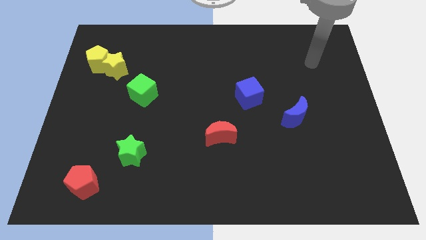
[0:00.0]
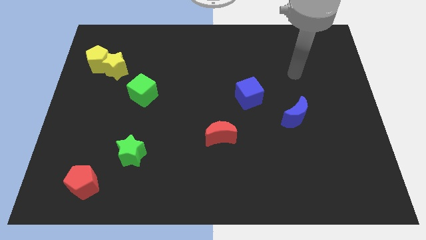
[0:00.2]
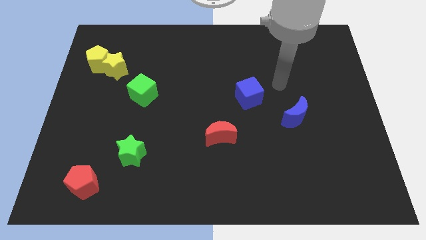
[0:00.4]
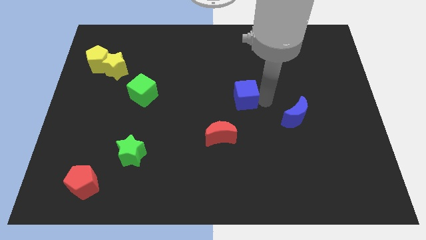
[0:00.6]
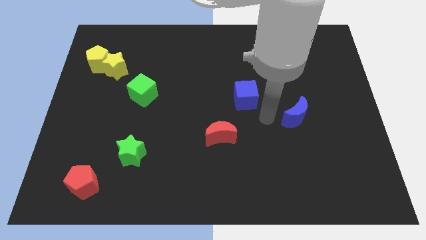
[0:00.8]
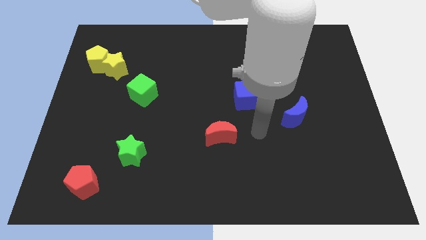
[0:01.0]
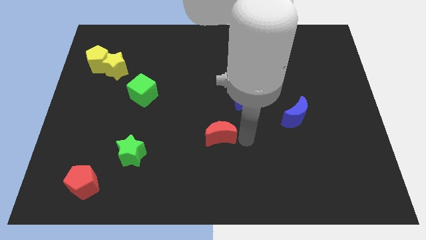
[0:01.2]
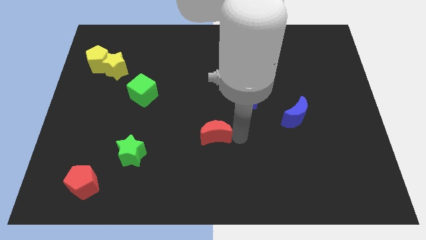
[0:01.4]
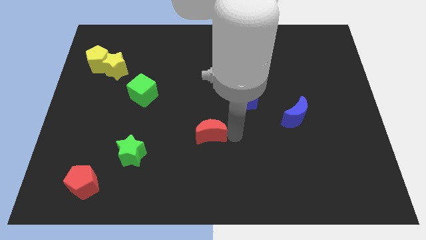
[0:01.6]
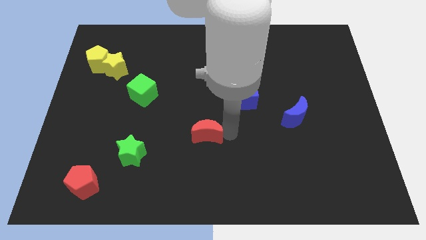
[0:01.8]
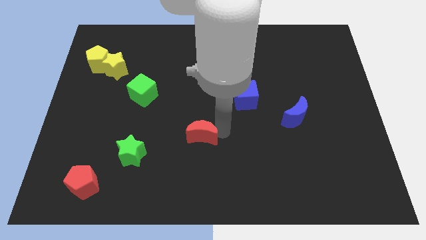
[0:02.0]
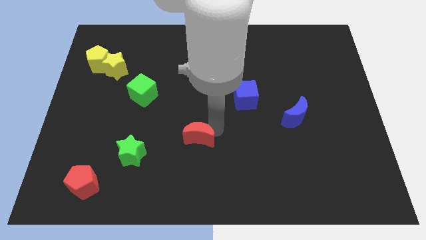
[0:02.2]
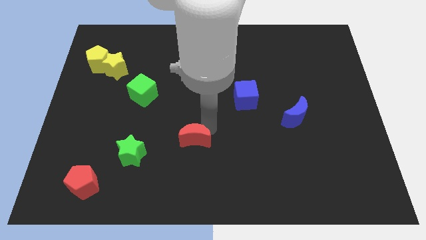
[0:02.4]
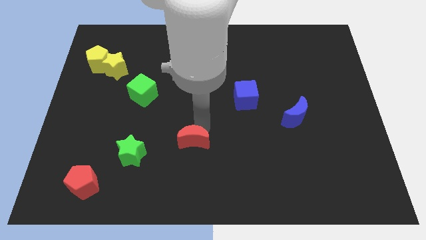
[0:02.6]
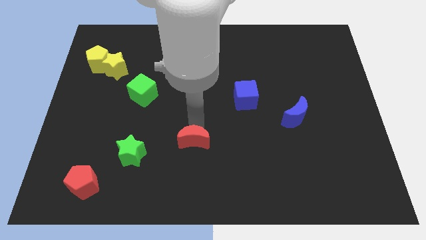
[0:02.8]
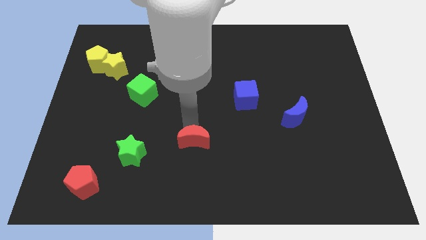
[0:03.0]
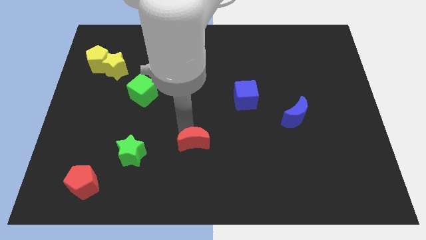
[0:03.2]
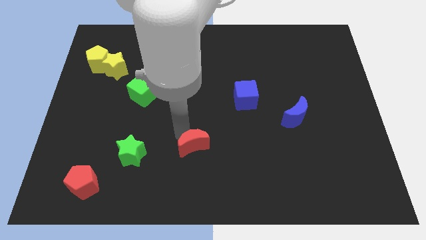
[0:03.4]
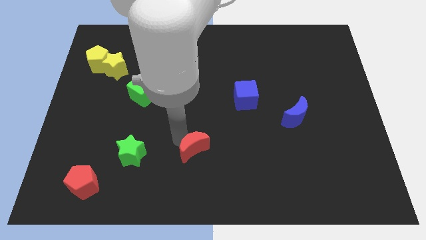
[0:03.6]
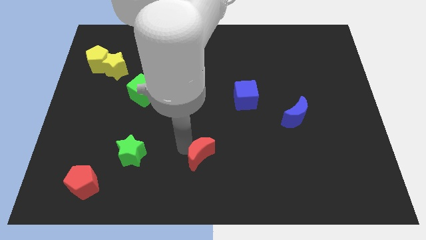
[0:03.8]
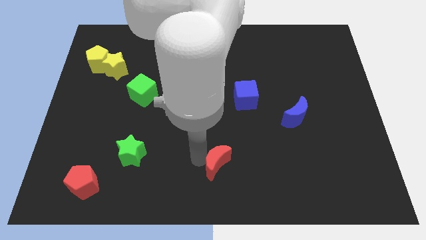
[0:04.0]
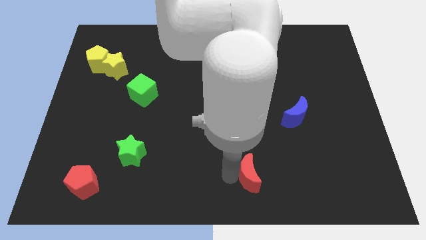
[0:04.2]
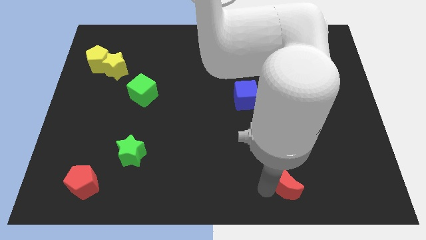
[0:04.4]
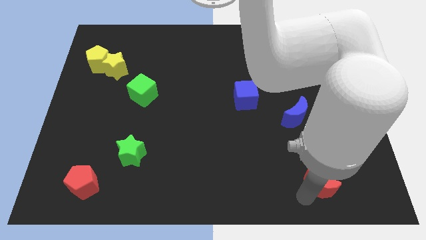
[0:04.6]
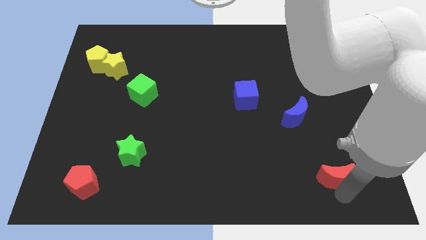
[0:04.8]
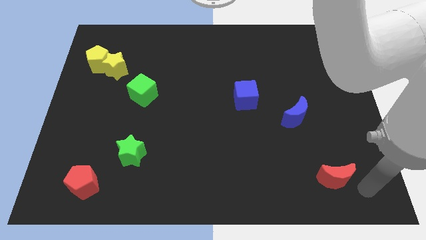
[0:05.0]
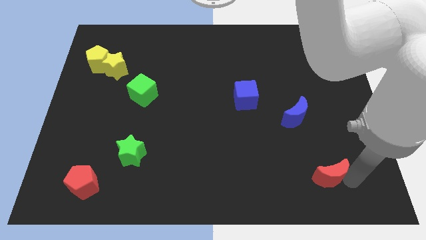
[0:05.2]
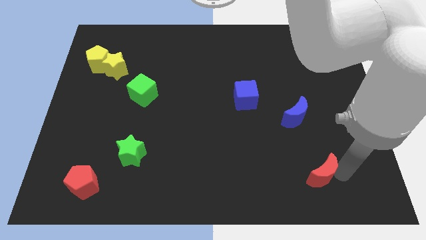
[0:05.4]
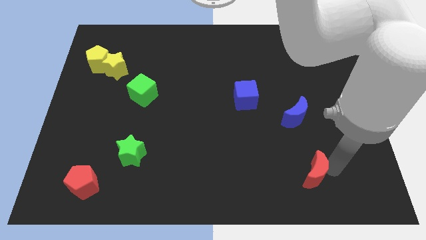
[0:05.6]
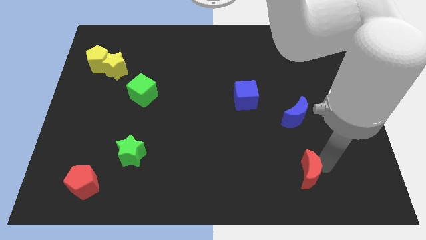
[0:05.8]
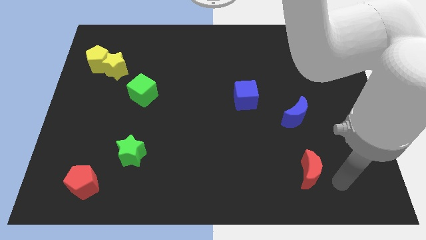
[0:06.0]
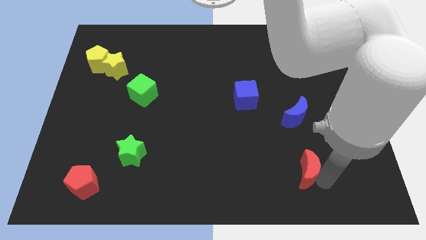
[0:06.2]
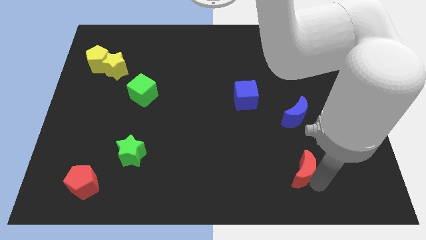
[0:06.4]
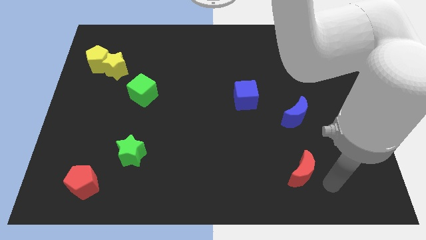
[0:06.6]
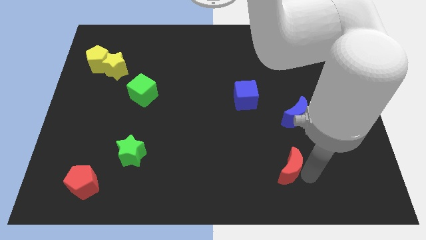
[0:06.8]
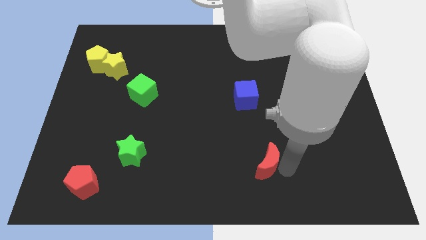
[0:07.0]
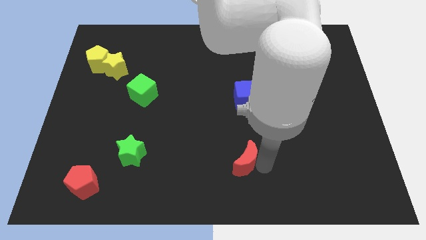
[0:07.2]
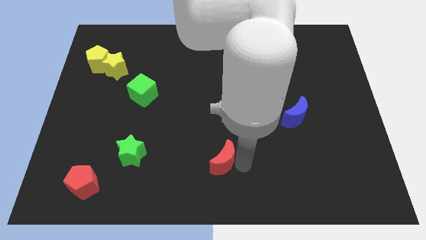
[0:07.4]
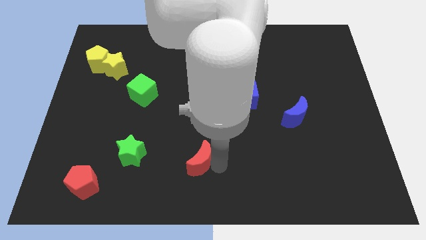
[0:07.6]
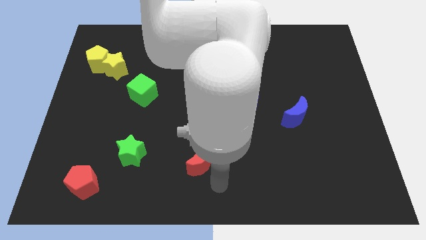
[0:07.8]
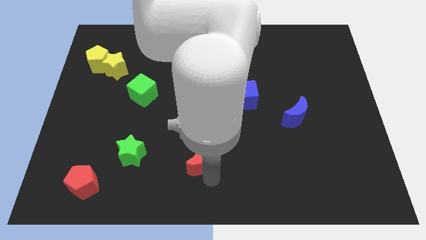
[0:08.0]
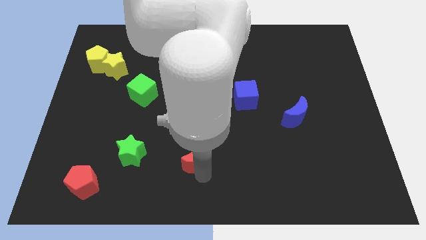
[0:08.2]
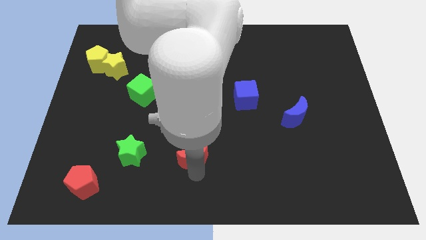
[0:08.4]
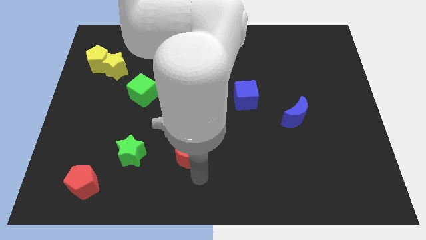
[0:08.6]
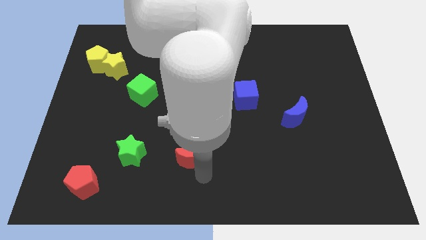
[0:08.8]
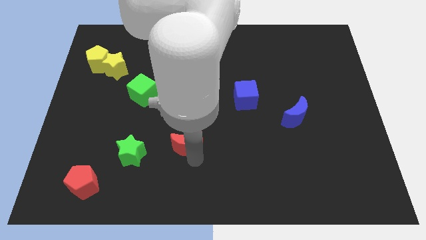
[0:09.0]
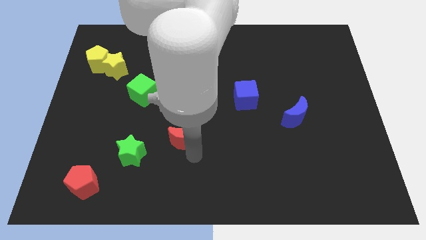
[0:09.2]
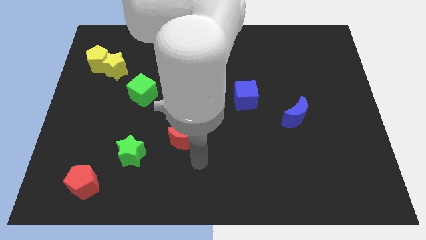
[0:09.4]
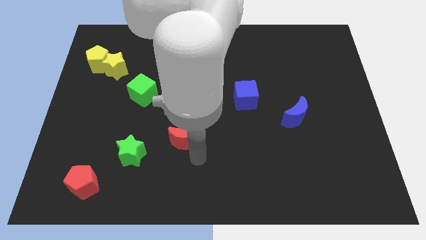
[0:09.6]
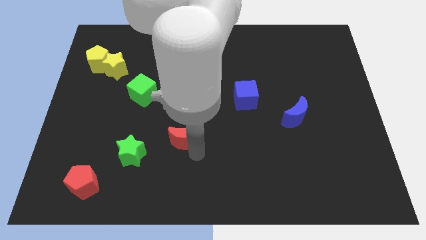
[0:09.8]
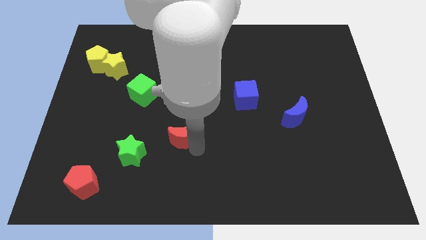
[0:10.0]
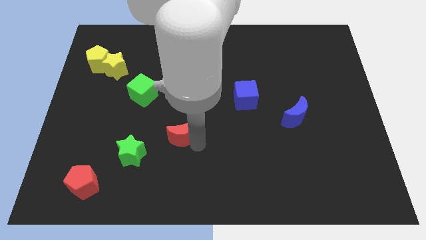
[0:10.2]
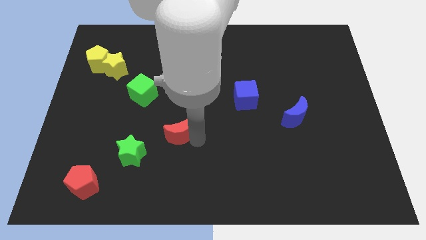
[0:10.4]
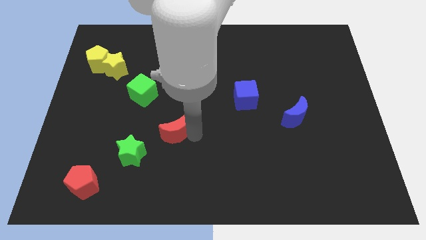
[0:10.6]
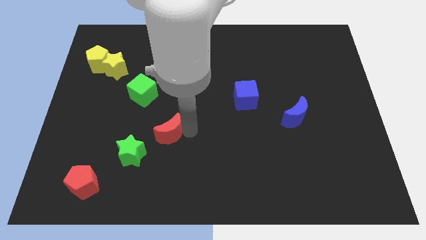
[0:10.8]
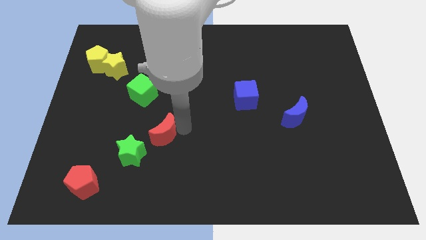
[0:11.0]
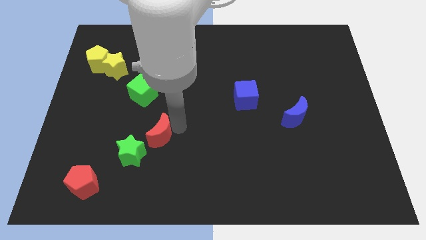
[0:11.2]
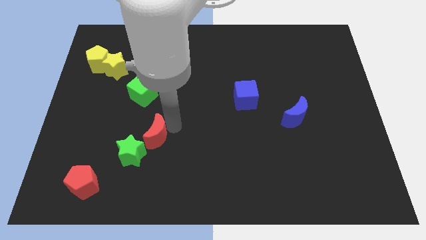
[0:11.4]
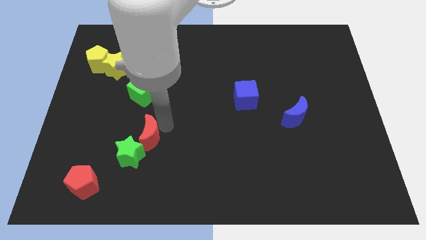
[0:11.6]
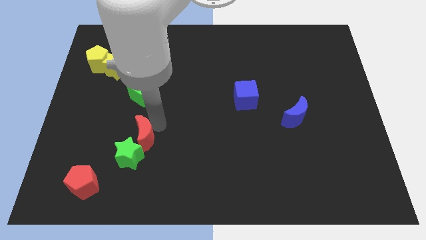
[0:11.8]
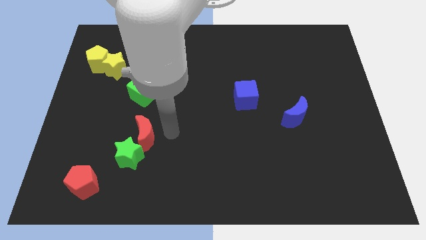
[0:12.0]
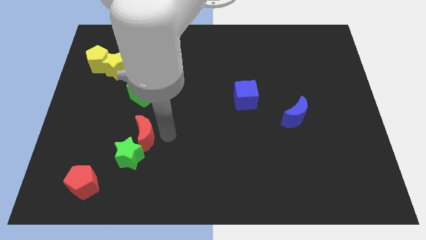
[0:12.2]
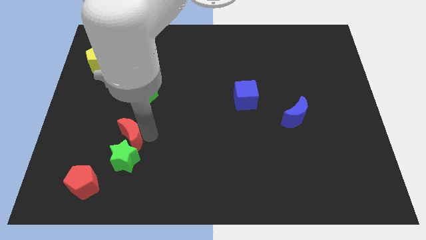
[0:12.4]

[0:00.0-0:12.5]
move the red moon to the top left of the green star

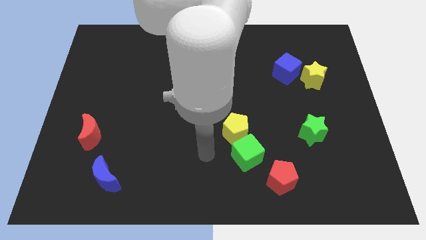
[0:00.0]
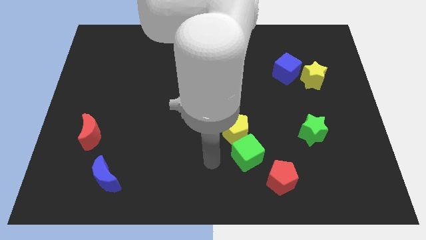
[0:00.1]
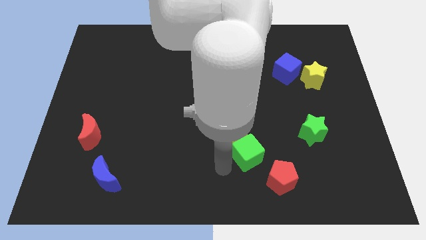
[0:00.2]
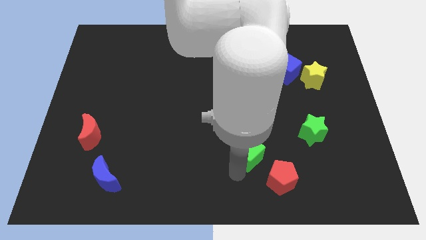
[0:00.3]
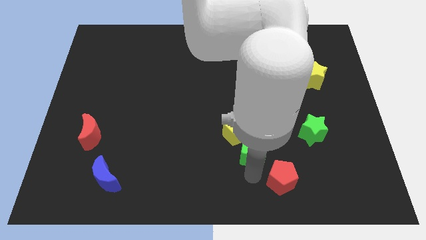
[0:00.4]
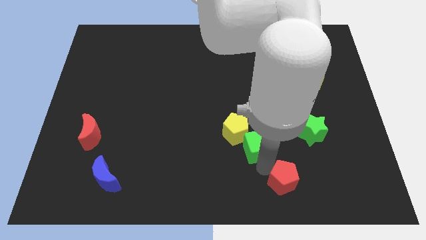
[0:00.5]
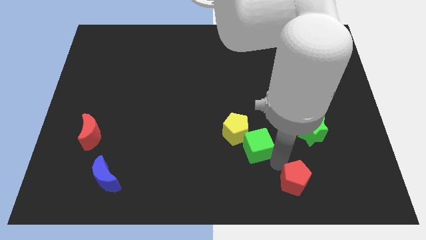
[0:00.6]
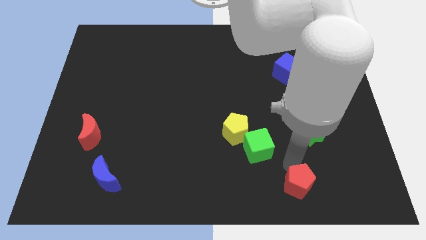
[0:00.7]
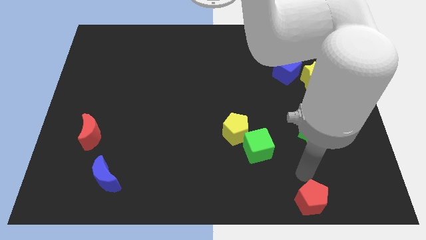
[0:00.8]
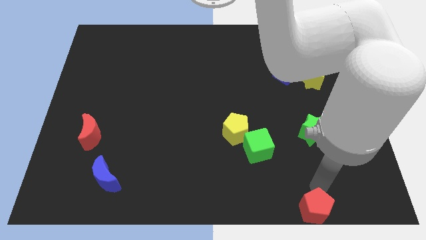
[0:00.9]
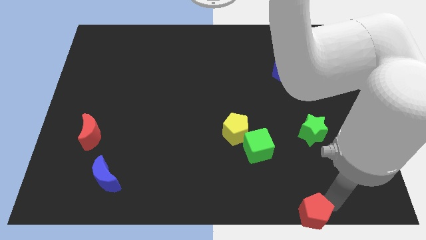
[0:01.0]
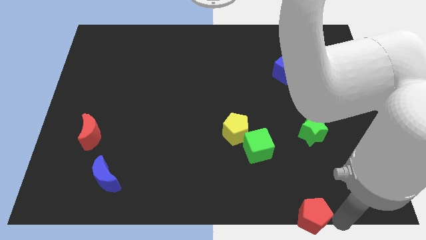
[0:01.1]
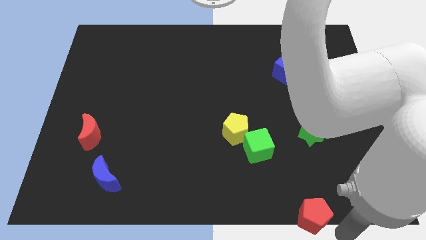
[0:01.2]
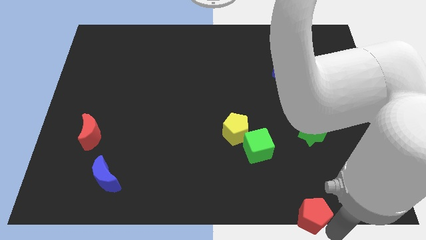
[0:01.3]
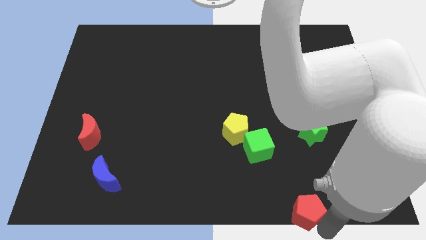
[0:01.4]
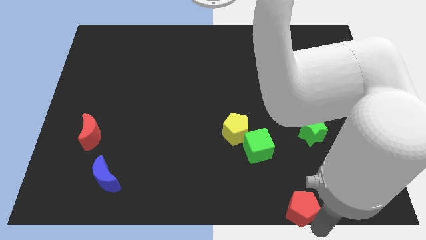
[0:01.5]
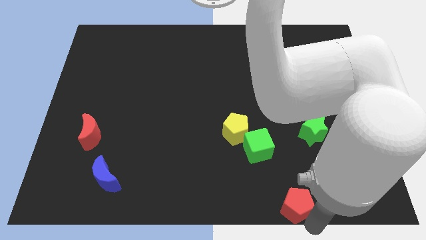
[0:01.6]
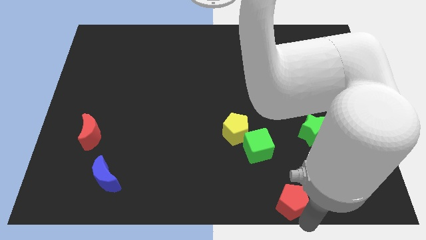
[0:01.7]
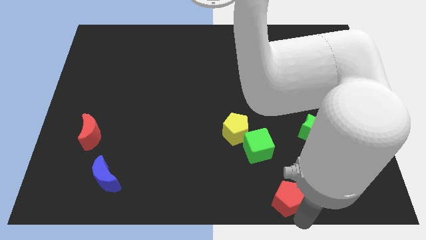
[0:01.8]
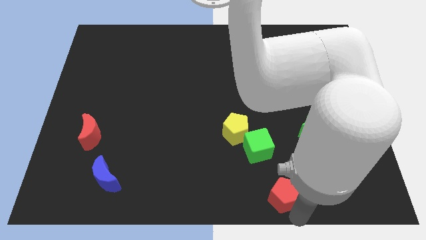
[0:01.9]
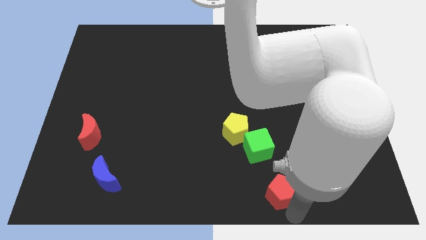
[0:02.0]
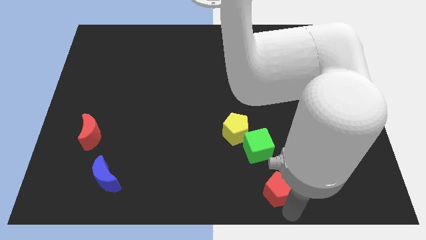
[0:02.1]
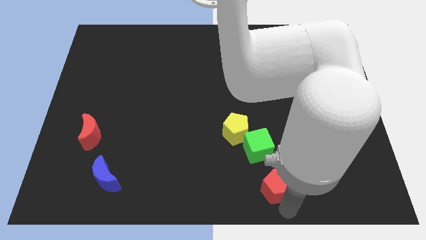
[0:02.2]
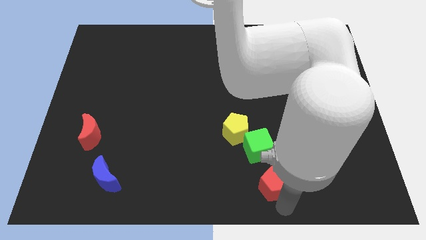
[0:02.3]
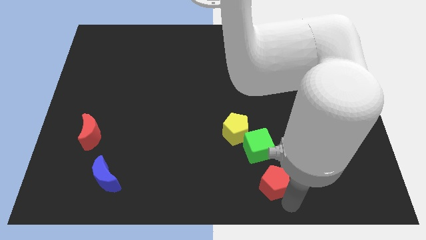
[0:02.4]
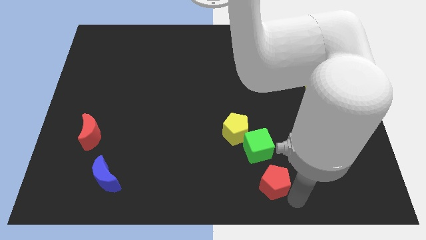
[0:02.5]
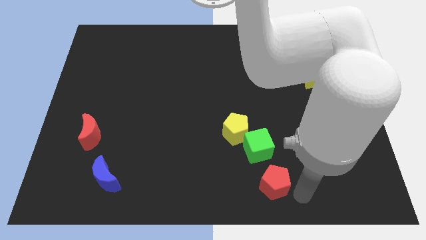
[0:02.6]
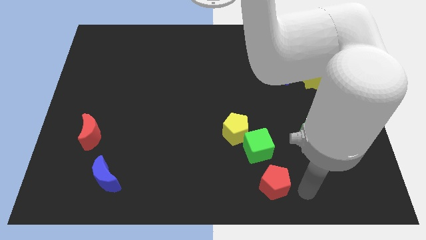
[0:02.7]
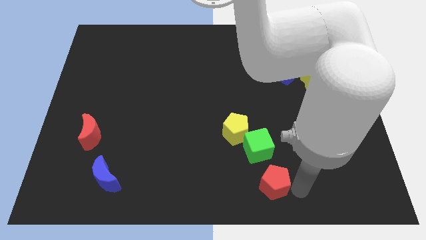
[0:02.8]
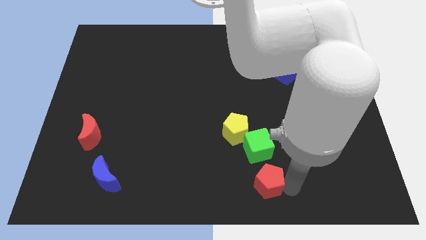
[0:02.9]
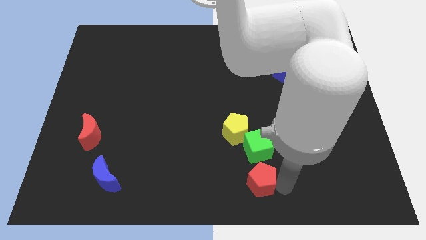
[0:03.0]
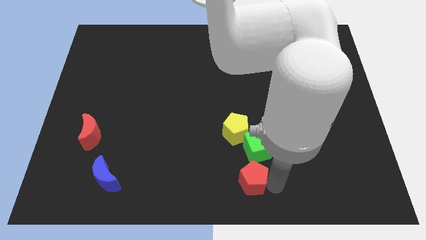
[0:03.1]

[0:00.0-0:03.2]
move the red pentagon to the bottom left of the green cube
